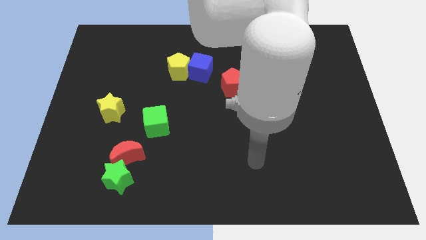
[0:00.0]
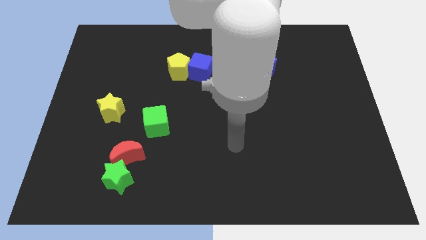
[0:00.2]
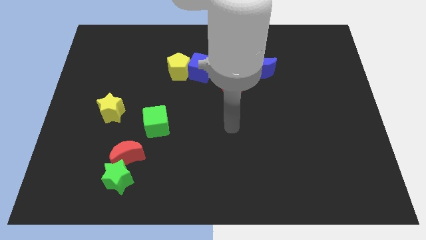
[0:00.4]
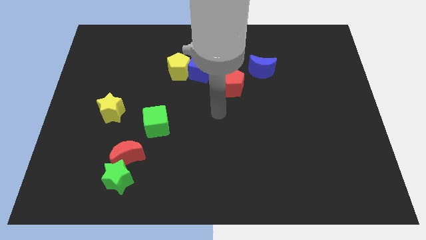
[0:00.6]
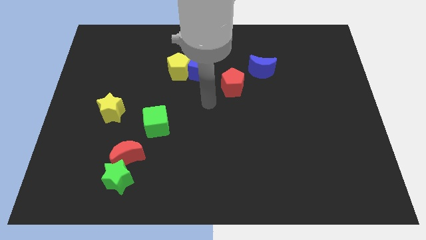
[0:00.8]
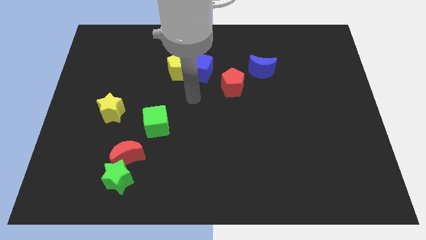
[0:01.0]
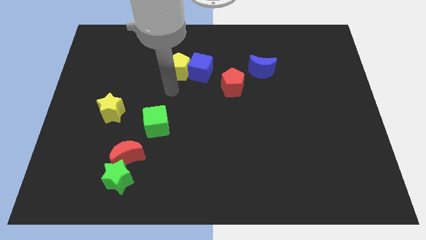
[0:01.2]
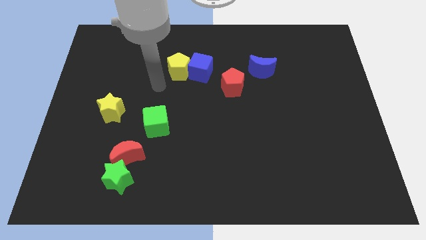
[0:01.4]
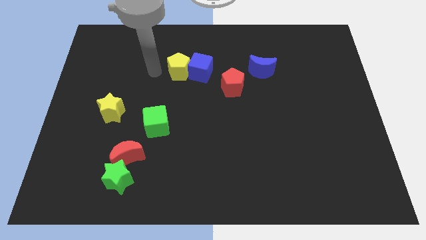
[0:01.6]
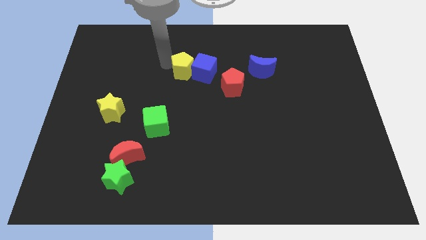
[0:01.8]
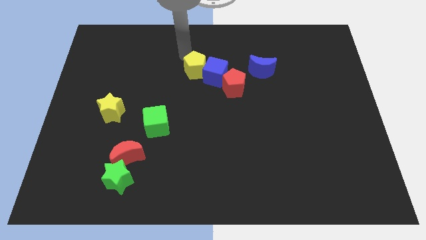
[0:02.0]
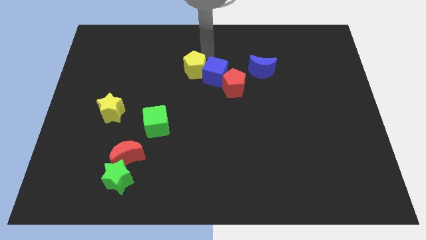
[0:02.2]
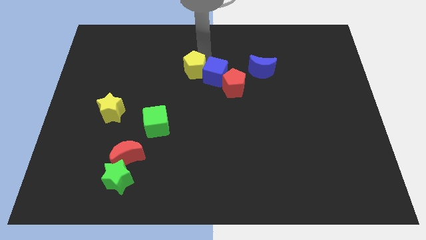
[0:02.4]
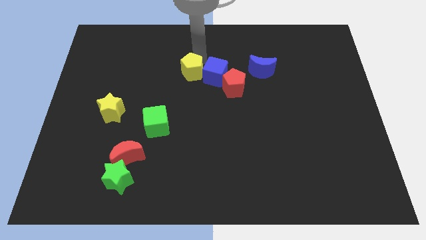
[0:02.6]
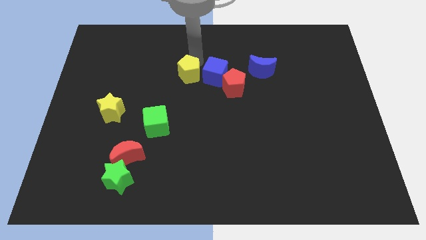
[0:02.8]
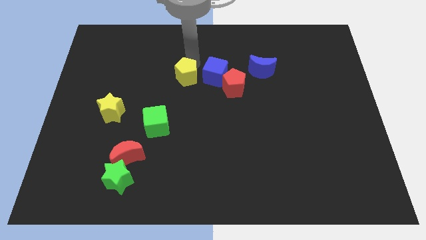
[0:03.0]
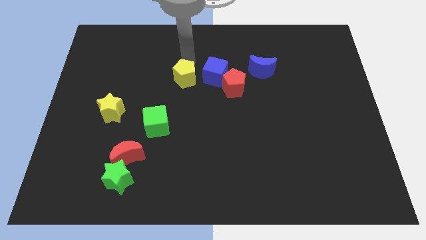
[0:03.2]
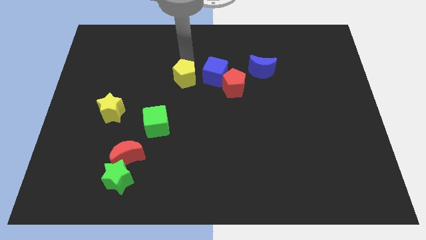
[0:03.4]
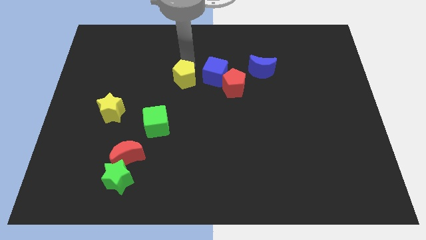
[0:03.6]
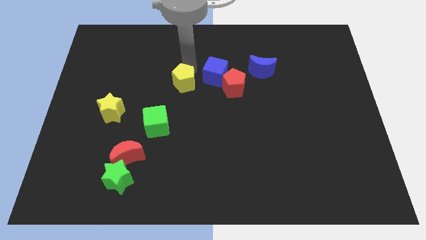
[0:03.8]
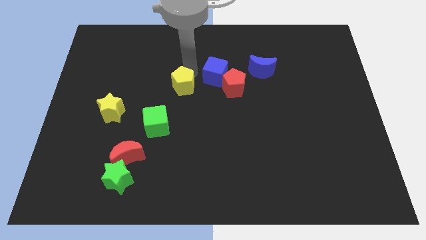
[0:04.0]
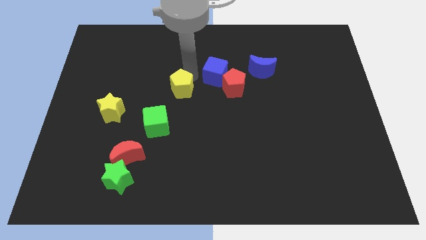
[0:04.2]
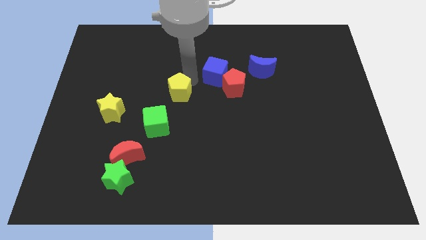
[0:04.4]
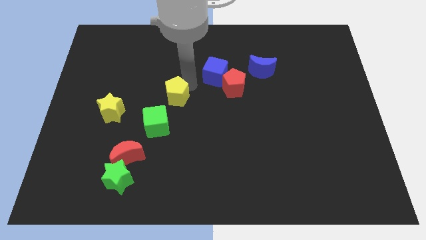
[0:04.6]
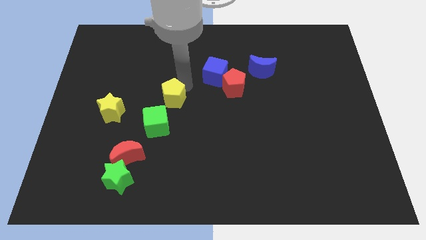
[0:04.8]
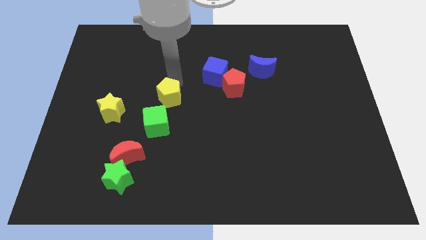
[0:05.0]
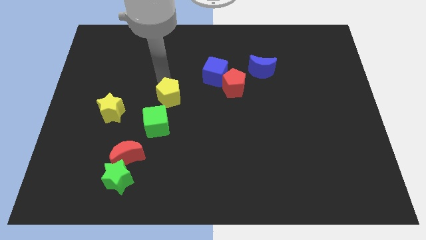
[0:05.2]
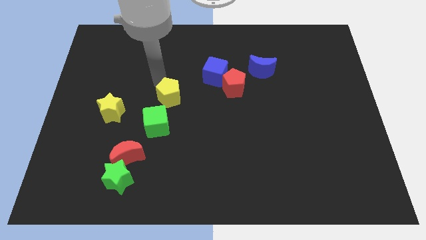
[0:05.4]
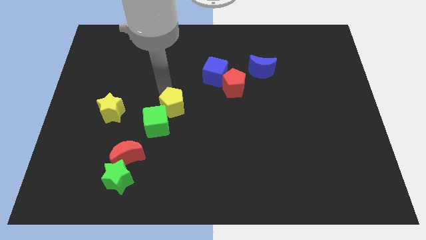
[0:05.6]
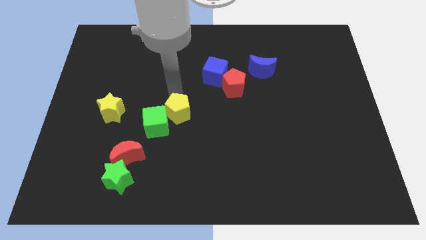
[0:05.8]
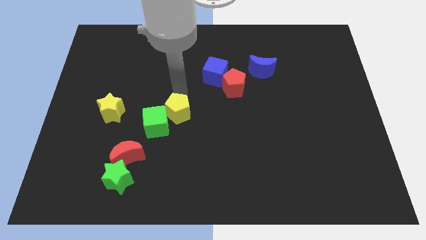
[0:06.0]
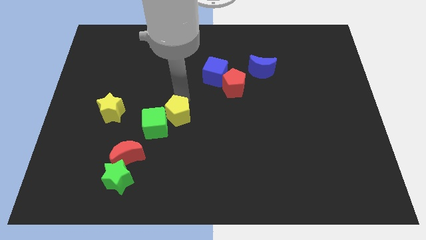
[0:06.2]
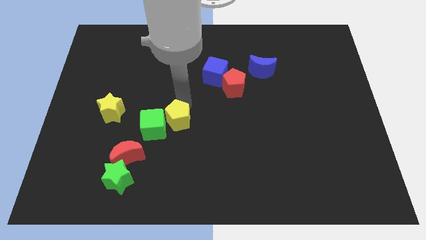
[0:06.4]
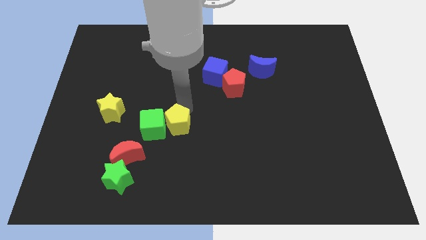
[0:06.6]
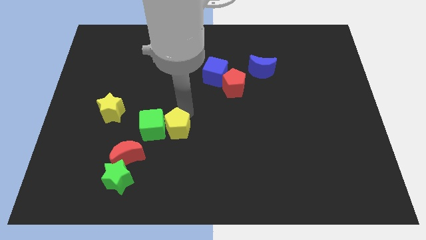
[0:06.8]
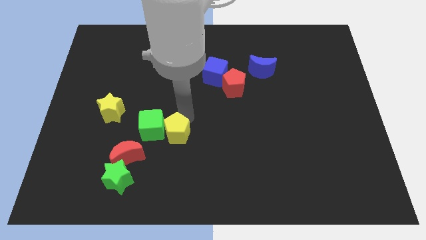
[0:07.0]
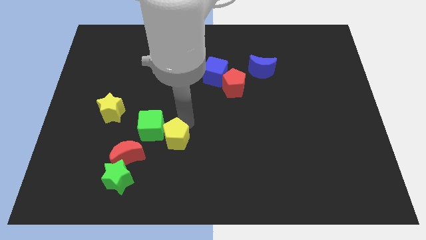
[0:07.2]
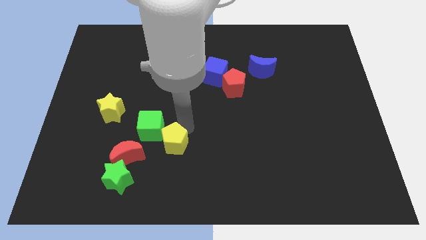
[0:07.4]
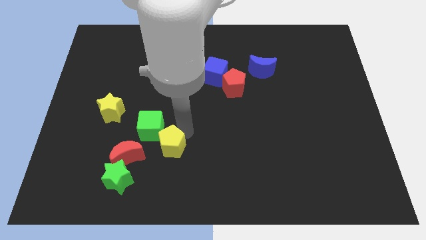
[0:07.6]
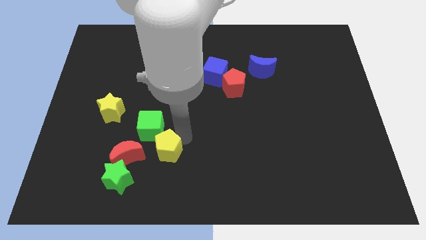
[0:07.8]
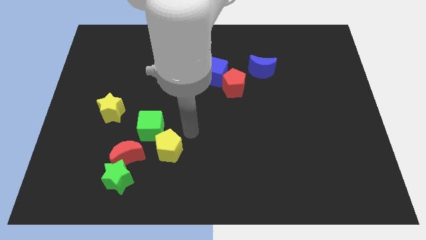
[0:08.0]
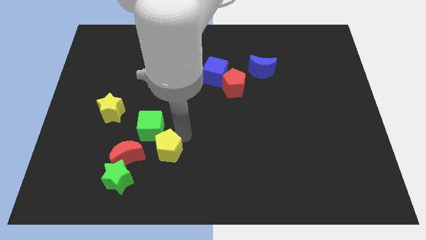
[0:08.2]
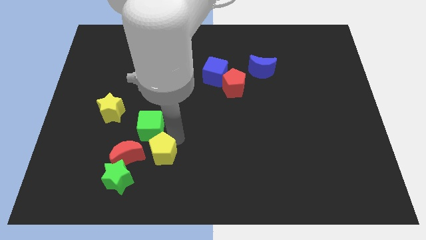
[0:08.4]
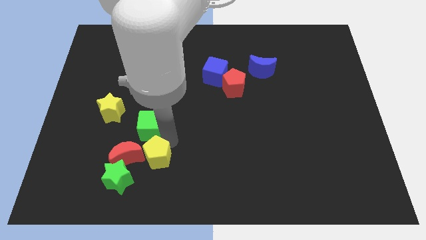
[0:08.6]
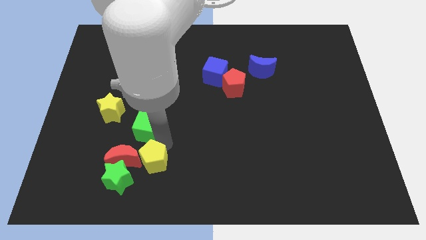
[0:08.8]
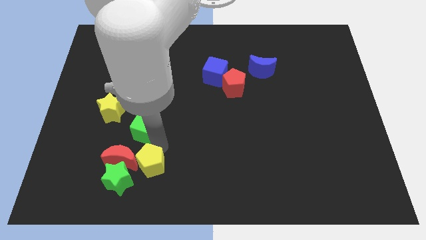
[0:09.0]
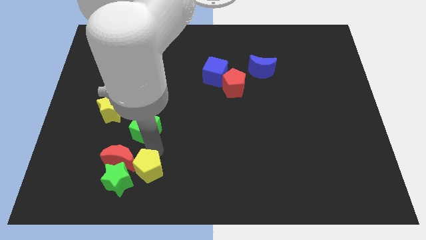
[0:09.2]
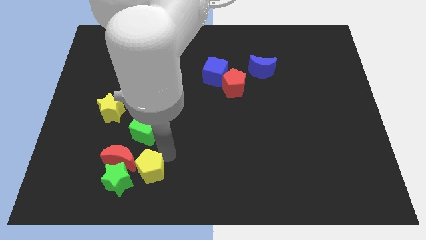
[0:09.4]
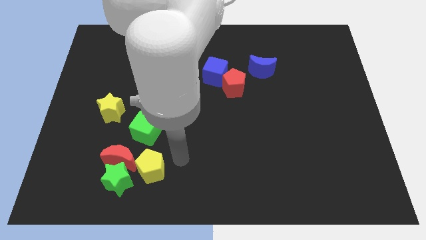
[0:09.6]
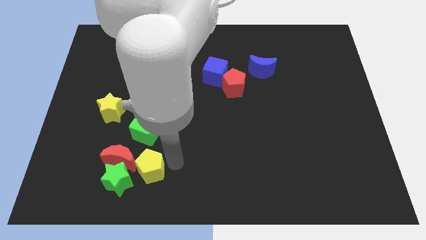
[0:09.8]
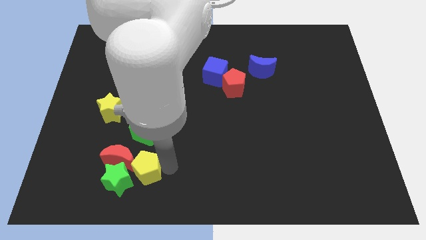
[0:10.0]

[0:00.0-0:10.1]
move the yellow pentagon to the green star

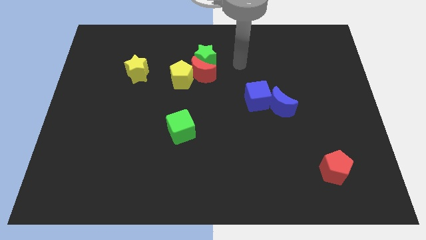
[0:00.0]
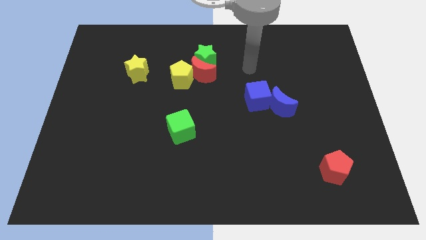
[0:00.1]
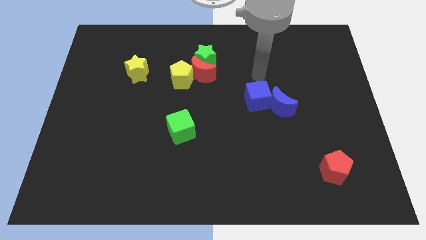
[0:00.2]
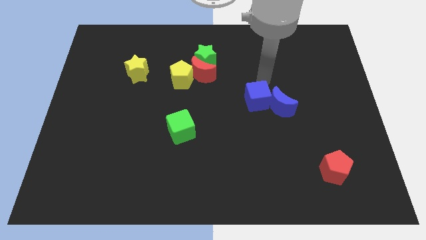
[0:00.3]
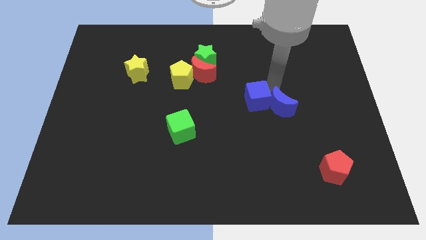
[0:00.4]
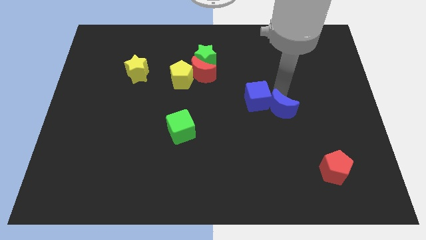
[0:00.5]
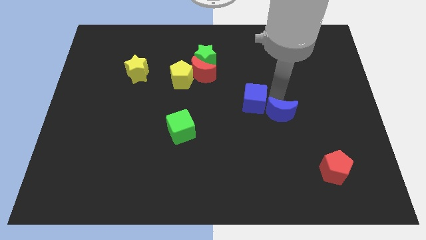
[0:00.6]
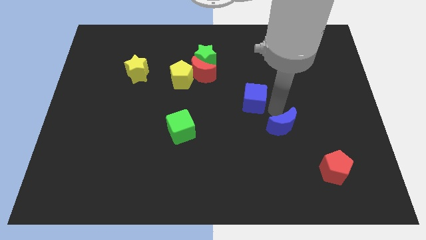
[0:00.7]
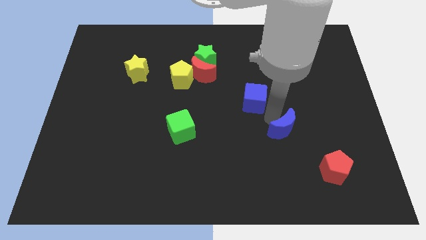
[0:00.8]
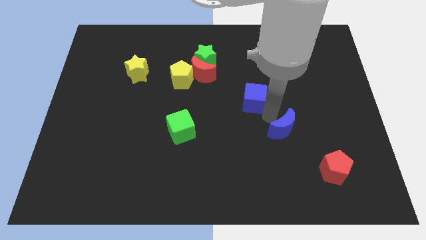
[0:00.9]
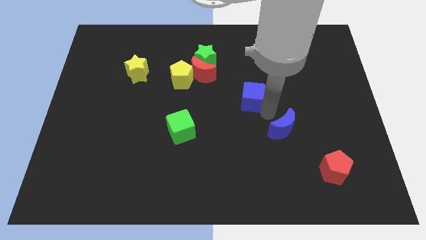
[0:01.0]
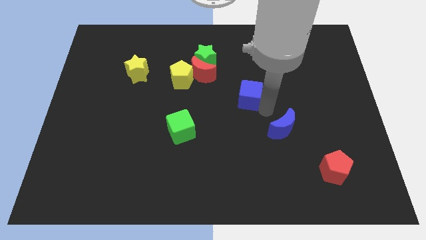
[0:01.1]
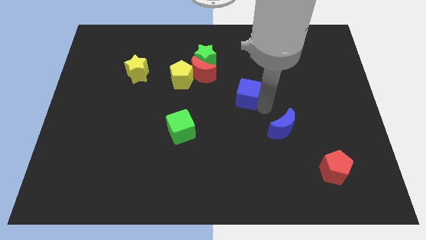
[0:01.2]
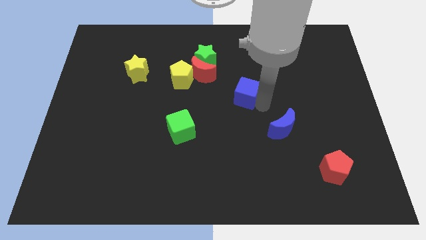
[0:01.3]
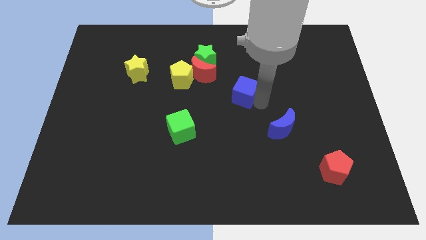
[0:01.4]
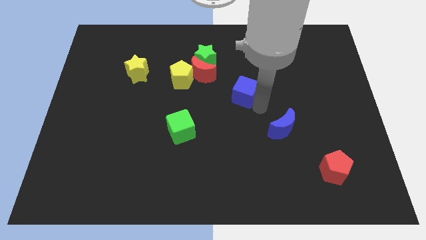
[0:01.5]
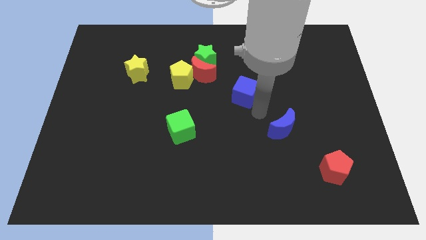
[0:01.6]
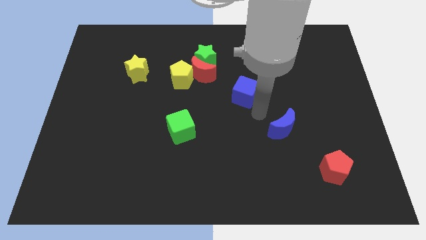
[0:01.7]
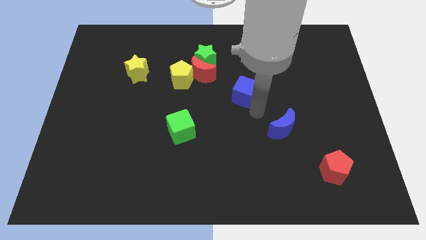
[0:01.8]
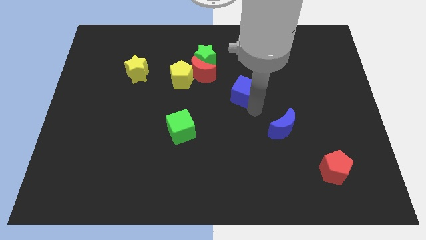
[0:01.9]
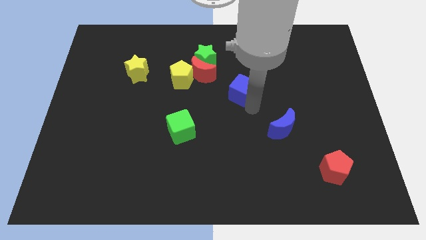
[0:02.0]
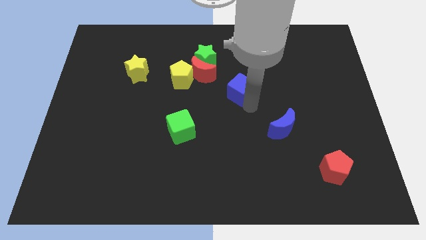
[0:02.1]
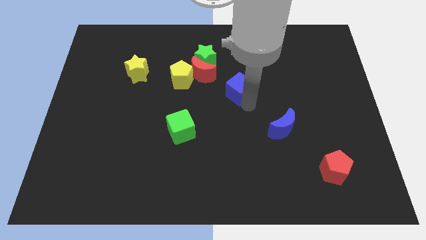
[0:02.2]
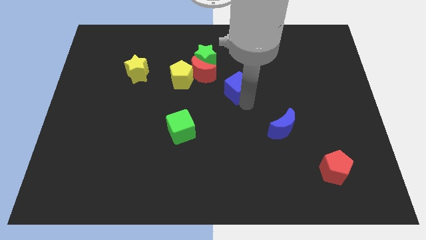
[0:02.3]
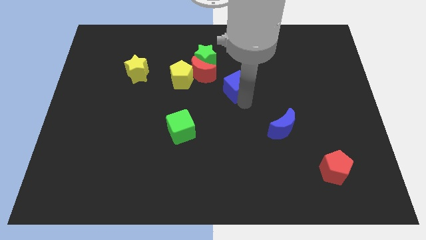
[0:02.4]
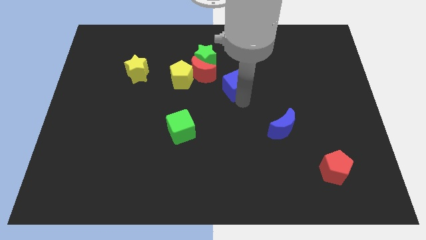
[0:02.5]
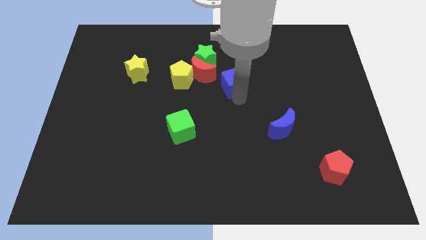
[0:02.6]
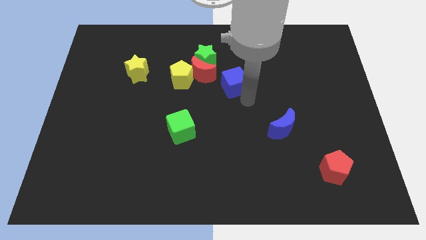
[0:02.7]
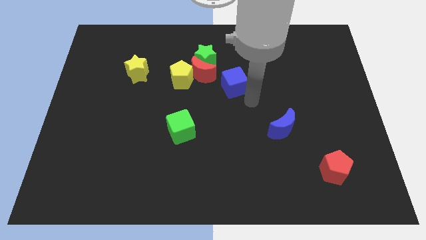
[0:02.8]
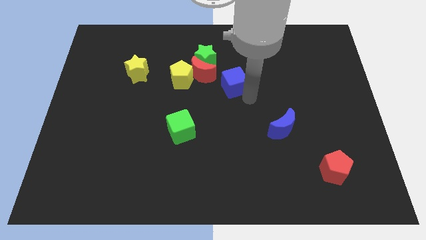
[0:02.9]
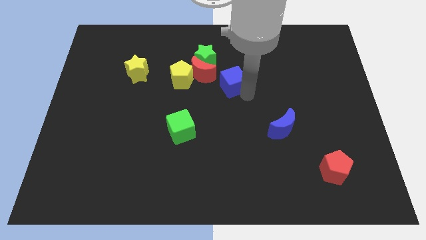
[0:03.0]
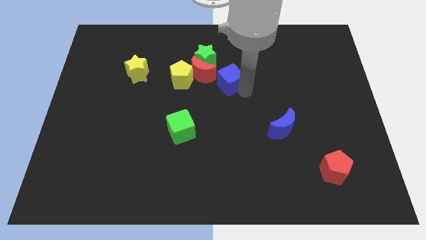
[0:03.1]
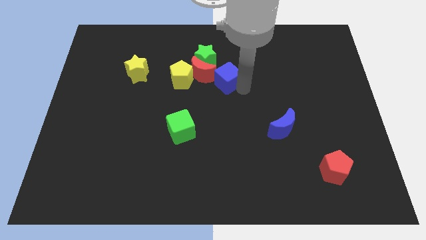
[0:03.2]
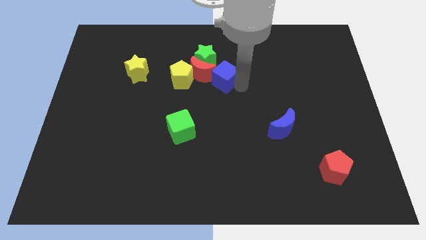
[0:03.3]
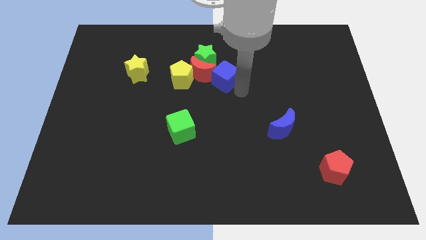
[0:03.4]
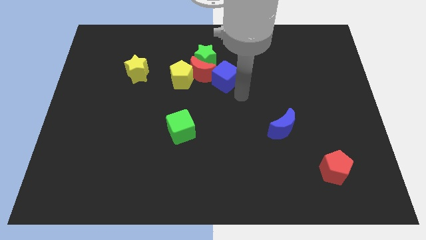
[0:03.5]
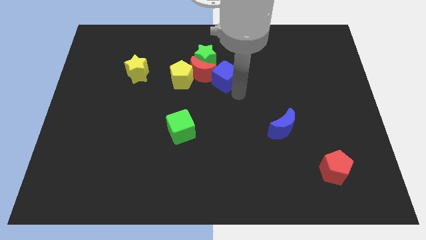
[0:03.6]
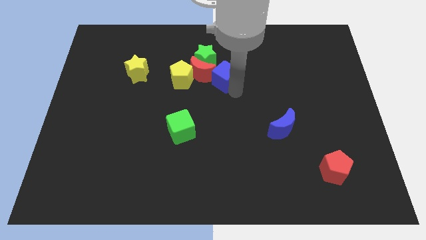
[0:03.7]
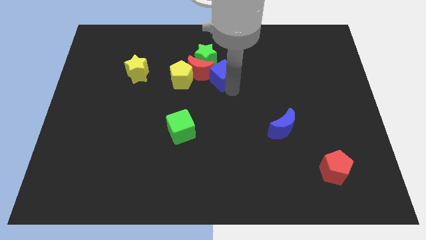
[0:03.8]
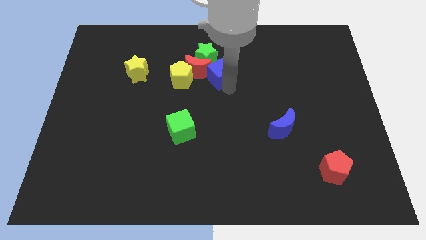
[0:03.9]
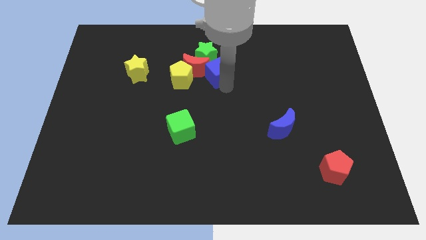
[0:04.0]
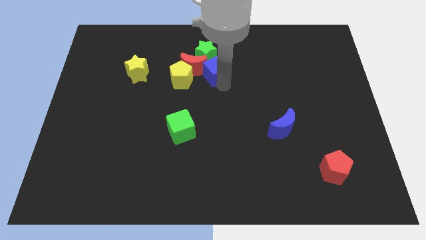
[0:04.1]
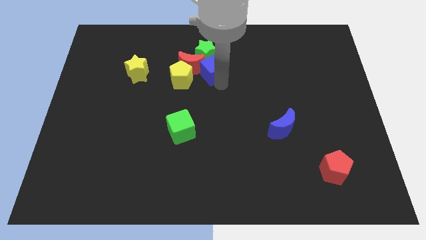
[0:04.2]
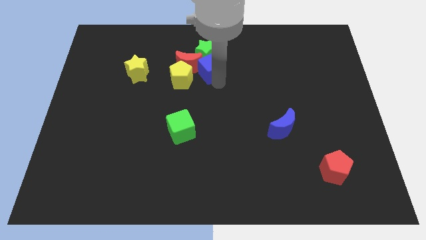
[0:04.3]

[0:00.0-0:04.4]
slide the blue cube close to the green star
